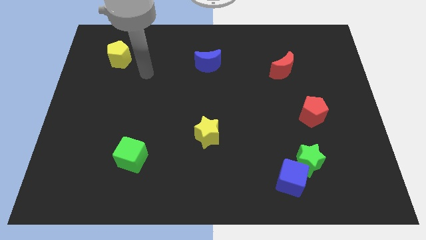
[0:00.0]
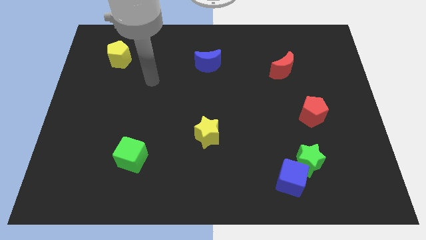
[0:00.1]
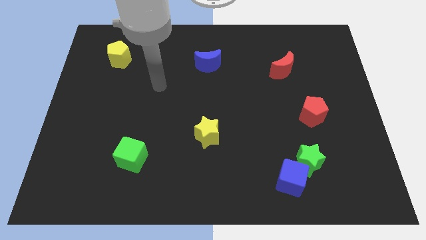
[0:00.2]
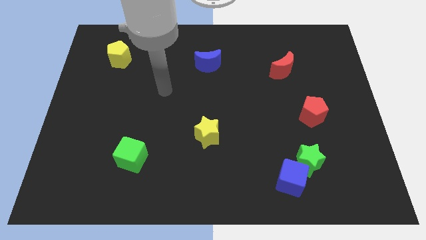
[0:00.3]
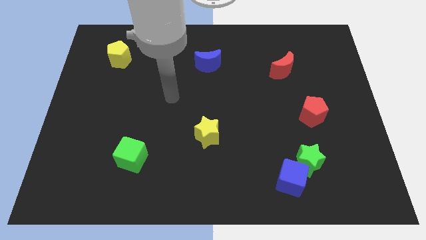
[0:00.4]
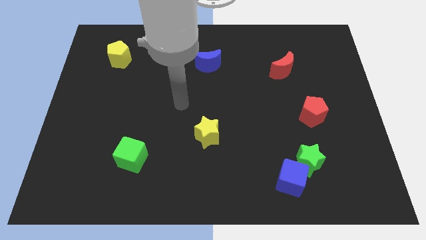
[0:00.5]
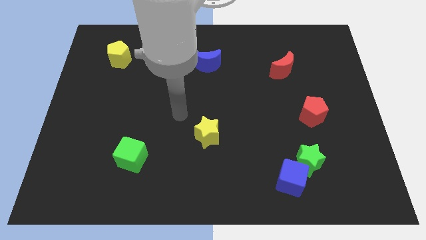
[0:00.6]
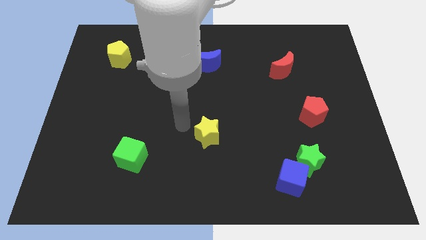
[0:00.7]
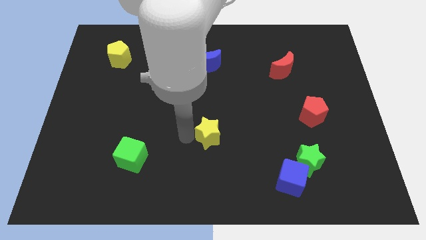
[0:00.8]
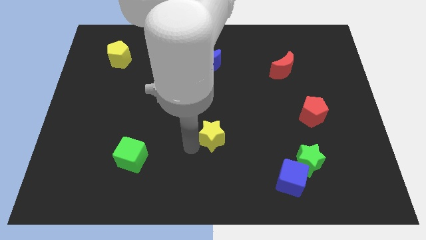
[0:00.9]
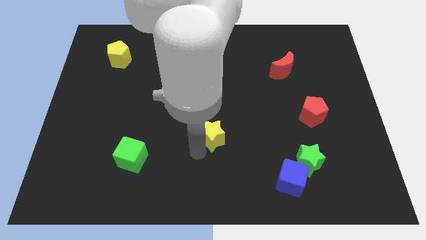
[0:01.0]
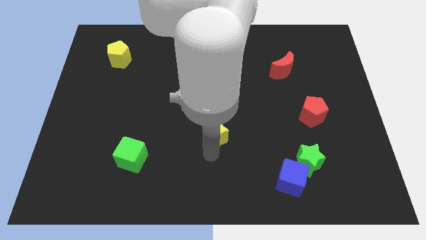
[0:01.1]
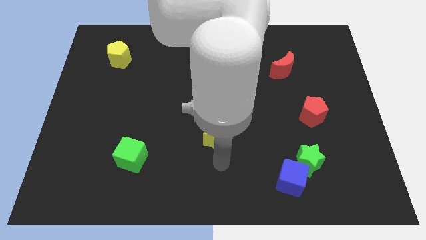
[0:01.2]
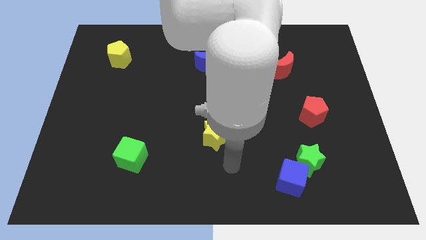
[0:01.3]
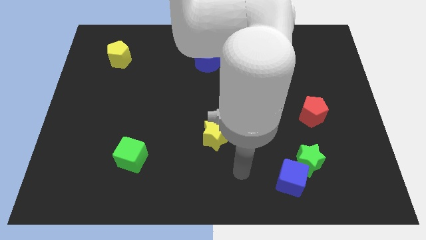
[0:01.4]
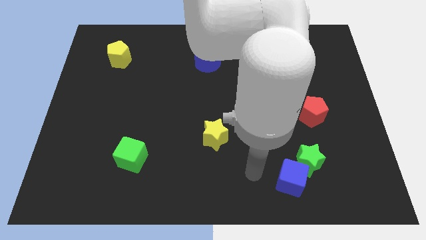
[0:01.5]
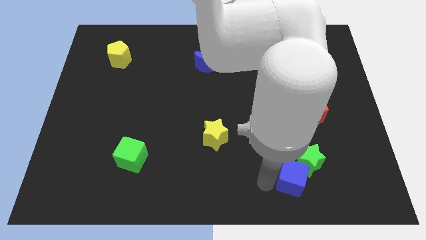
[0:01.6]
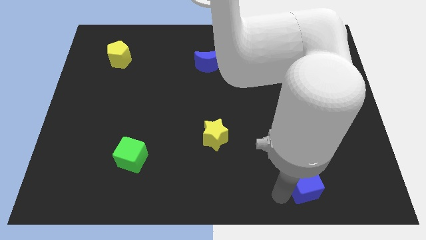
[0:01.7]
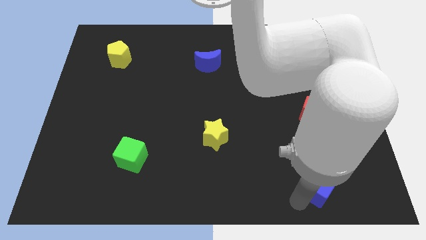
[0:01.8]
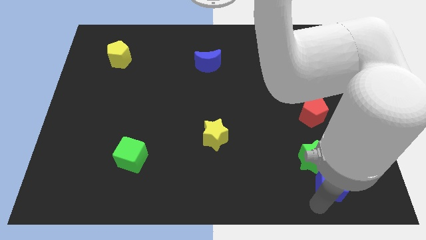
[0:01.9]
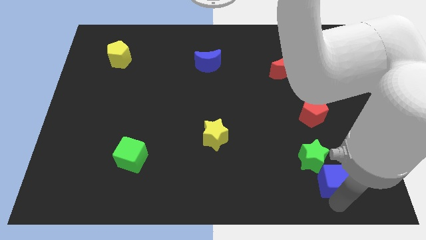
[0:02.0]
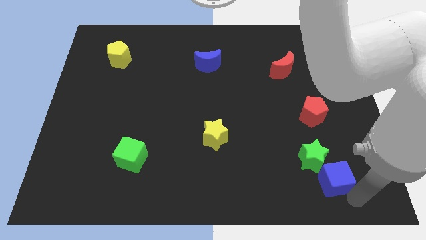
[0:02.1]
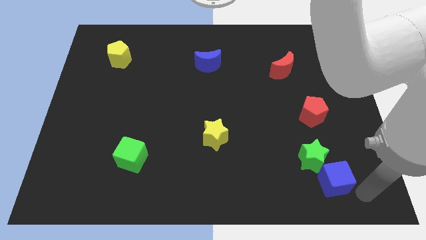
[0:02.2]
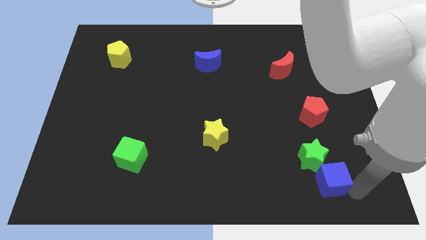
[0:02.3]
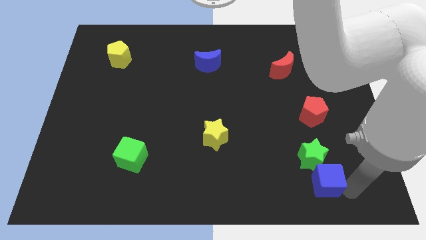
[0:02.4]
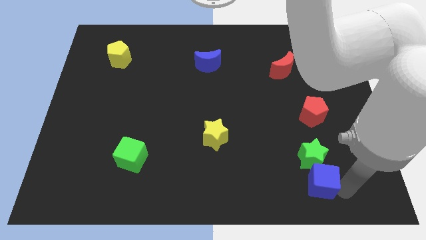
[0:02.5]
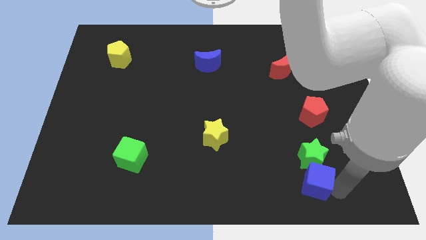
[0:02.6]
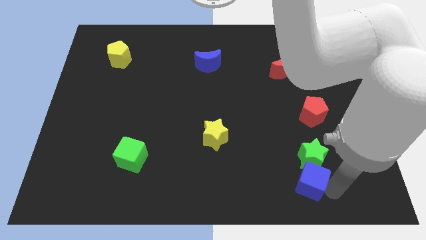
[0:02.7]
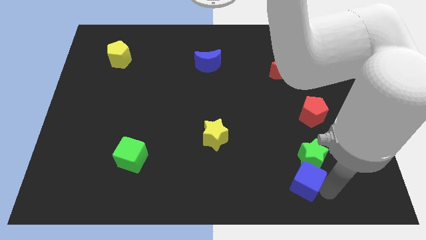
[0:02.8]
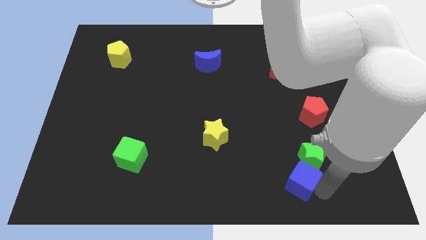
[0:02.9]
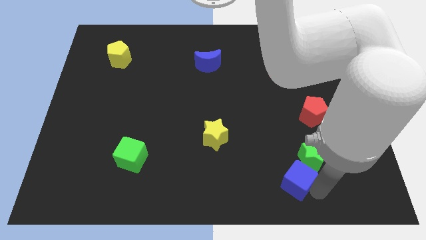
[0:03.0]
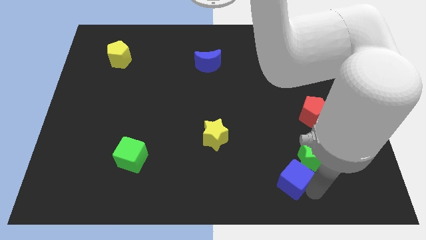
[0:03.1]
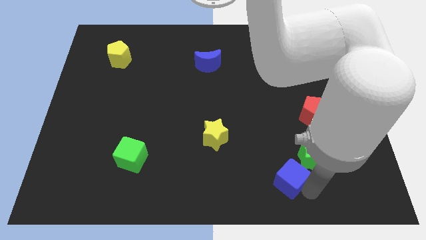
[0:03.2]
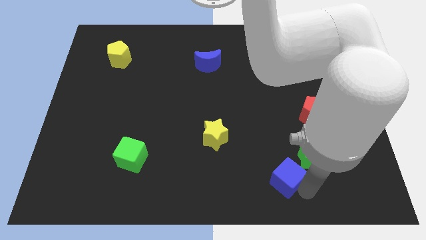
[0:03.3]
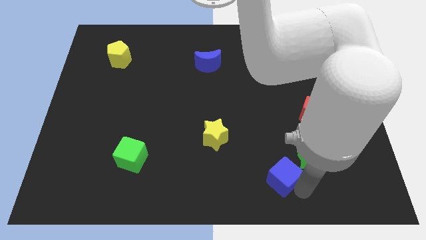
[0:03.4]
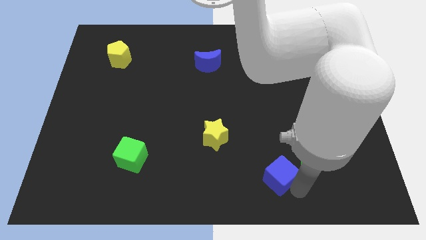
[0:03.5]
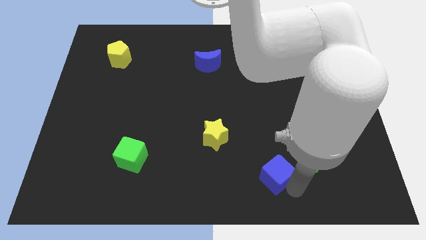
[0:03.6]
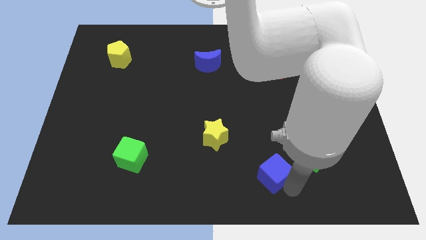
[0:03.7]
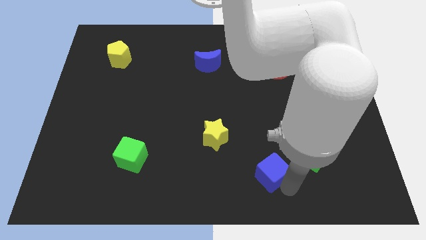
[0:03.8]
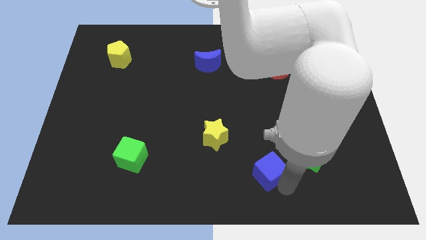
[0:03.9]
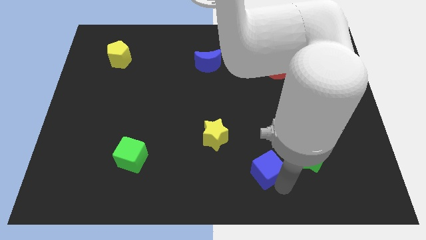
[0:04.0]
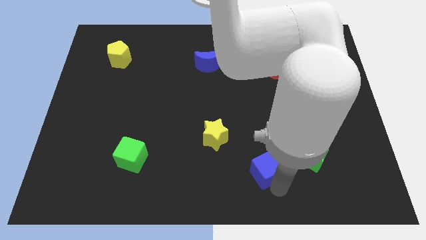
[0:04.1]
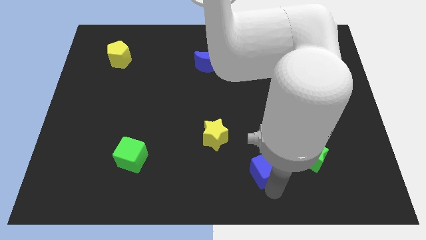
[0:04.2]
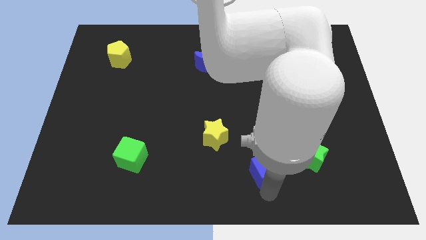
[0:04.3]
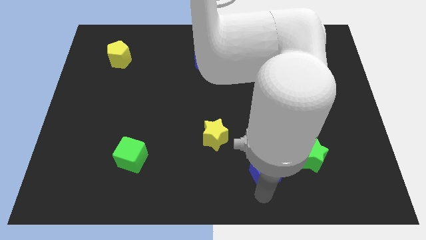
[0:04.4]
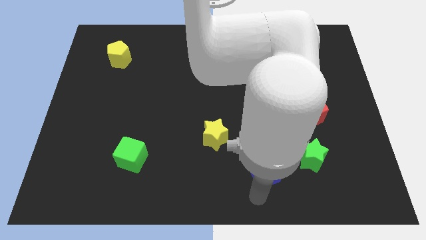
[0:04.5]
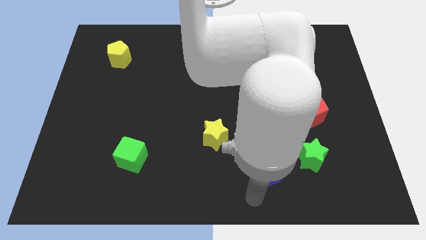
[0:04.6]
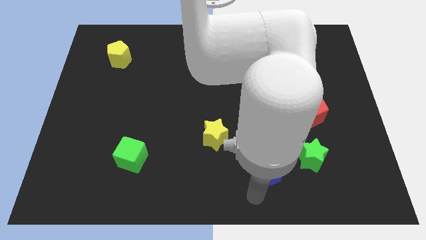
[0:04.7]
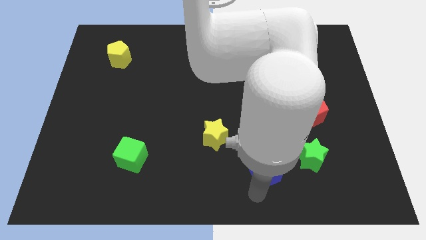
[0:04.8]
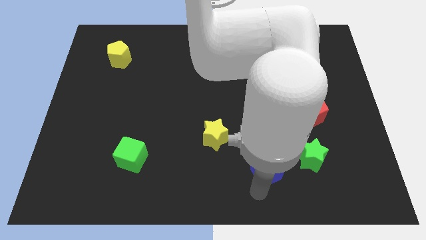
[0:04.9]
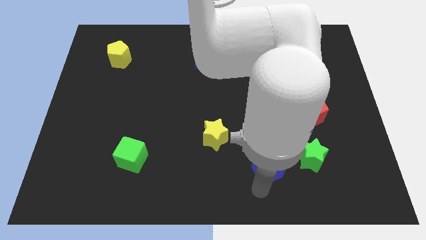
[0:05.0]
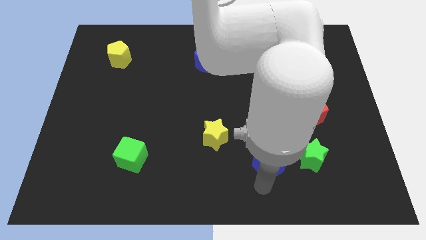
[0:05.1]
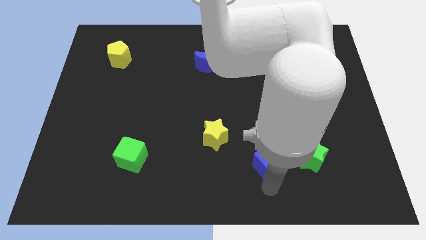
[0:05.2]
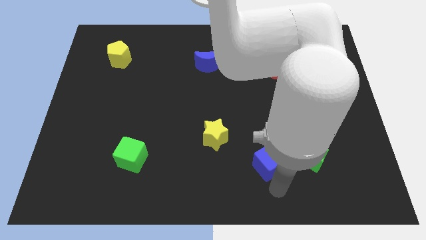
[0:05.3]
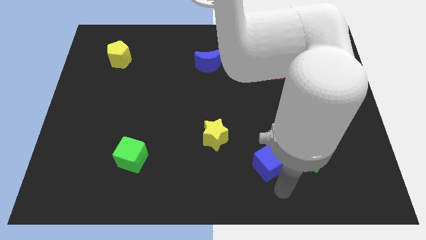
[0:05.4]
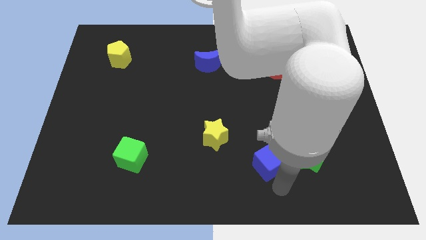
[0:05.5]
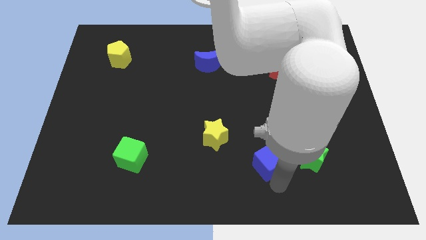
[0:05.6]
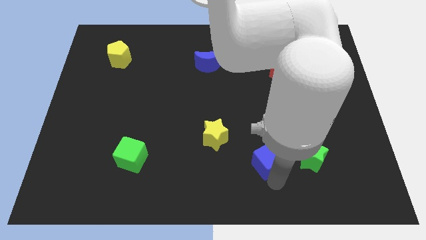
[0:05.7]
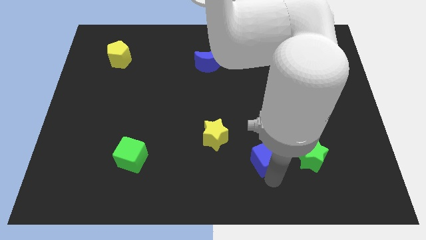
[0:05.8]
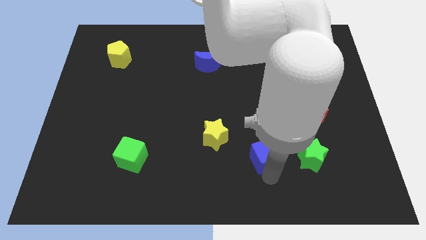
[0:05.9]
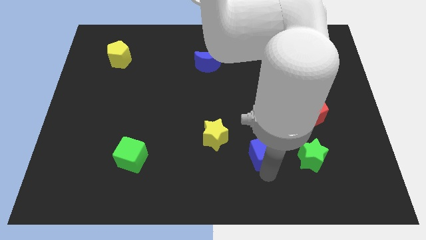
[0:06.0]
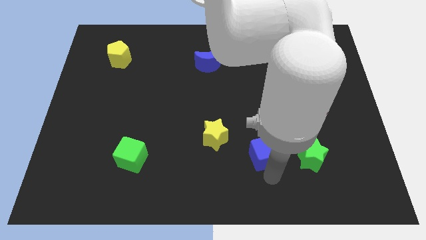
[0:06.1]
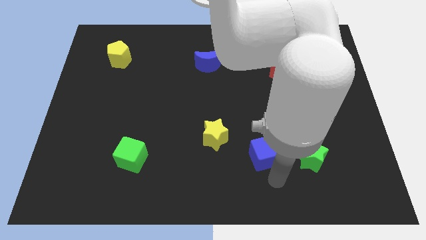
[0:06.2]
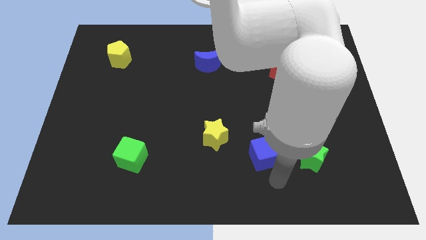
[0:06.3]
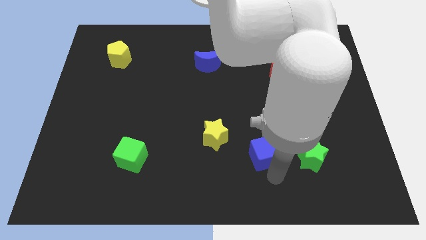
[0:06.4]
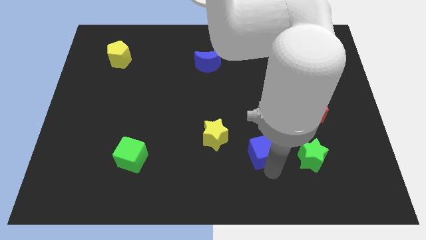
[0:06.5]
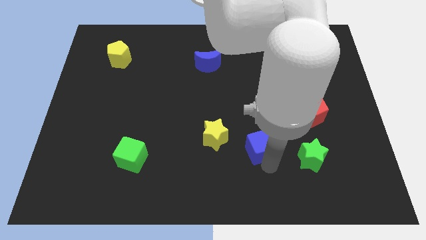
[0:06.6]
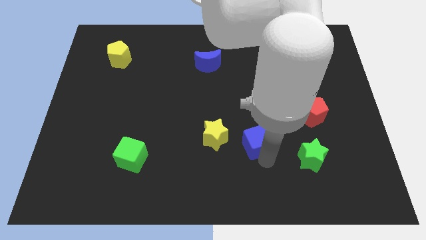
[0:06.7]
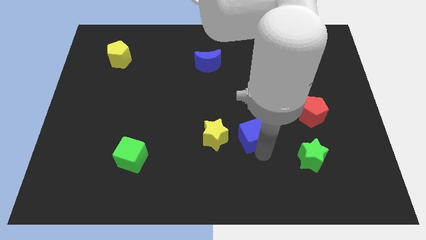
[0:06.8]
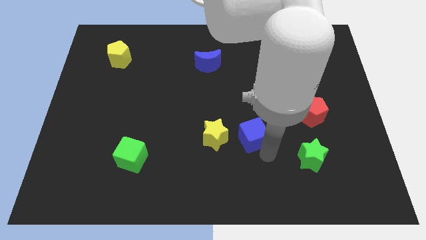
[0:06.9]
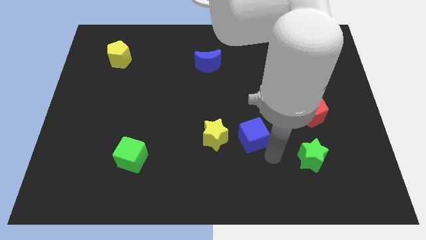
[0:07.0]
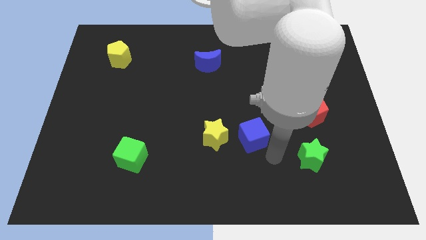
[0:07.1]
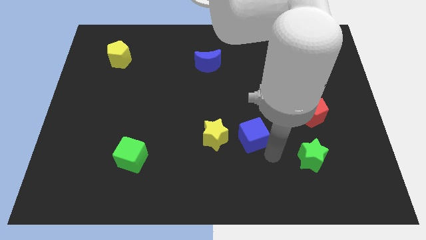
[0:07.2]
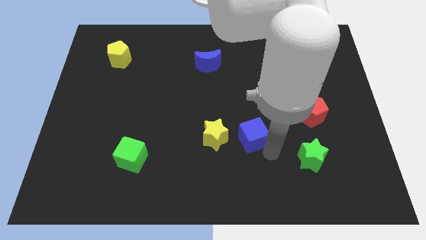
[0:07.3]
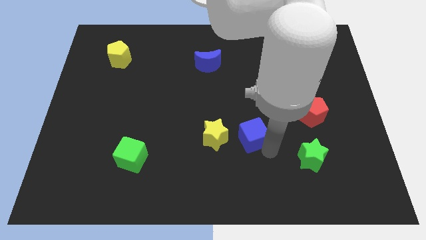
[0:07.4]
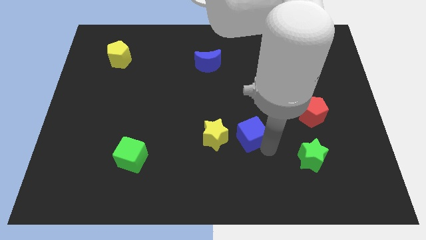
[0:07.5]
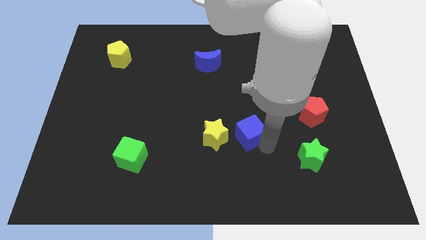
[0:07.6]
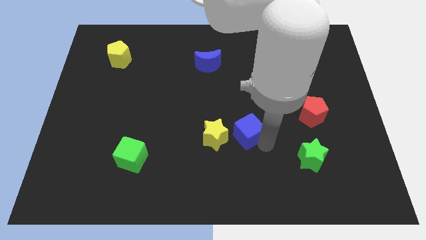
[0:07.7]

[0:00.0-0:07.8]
slide the blue cube to the middle
